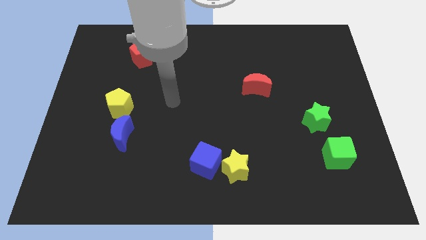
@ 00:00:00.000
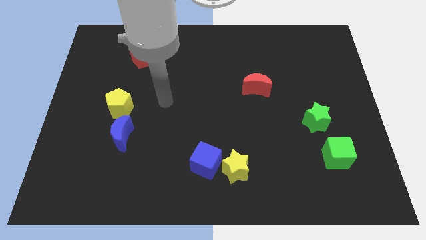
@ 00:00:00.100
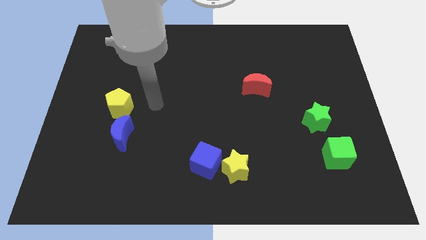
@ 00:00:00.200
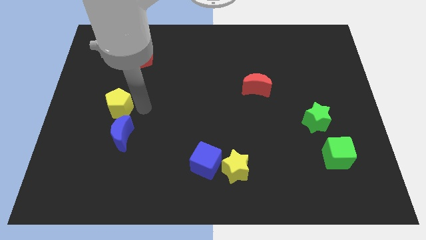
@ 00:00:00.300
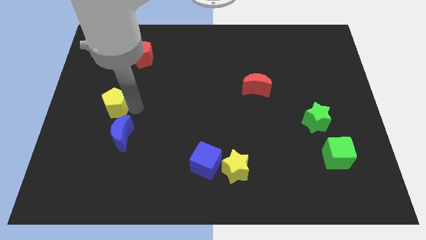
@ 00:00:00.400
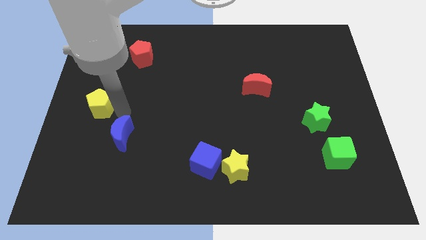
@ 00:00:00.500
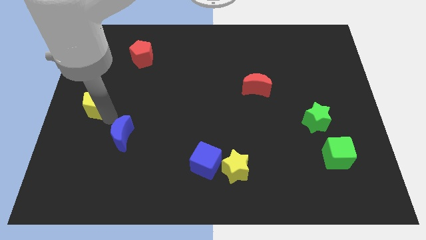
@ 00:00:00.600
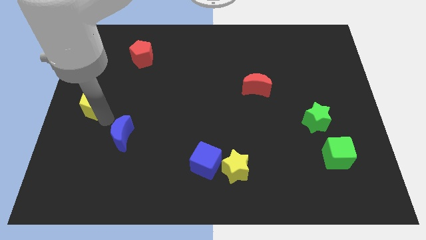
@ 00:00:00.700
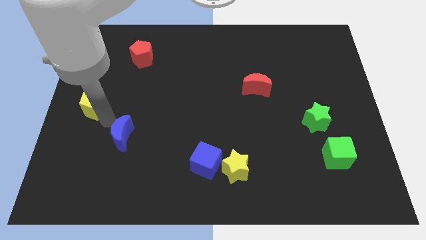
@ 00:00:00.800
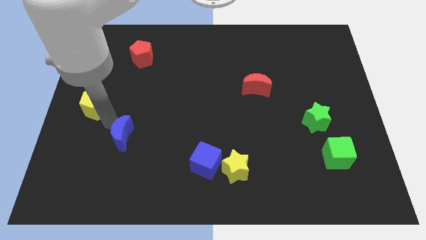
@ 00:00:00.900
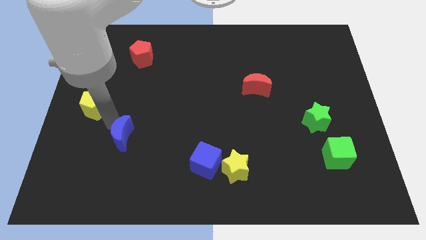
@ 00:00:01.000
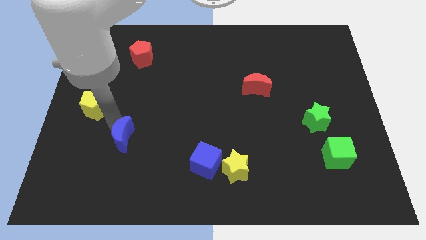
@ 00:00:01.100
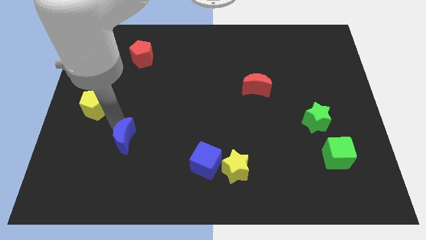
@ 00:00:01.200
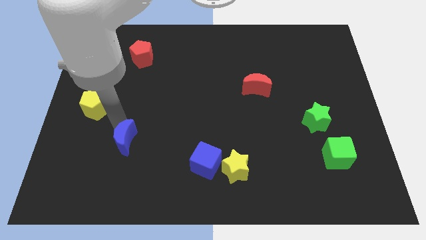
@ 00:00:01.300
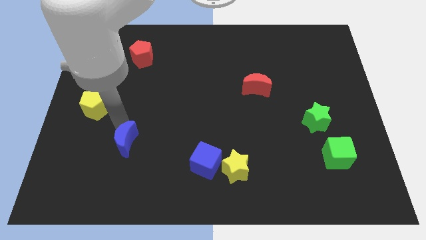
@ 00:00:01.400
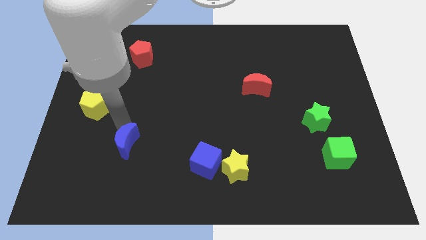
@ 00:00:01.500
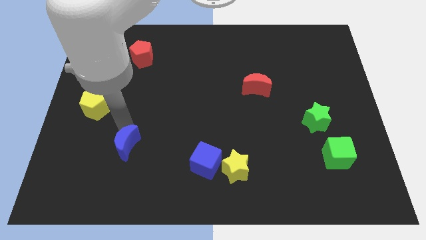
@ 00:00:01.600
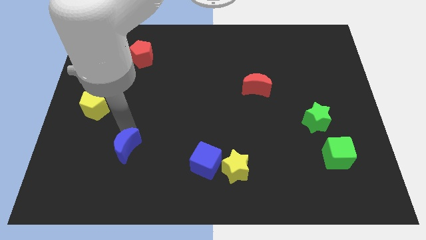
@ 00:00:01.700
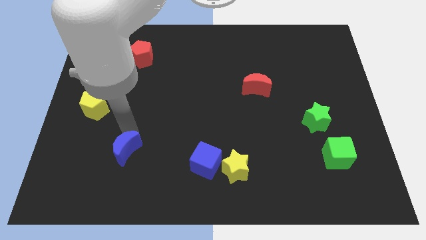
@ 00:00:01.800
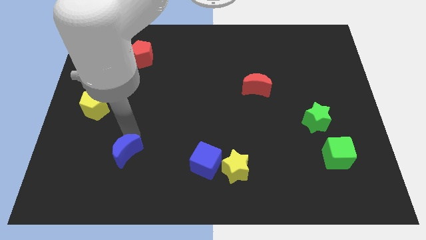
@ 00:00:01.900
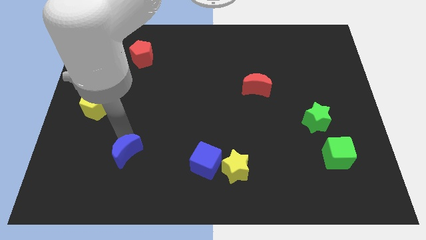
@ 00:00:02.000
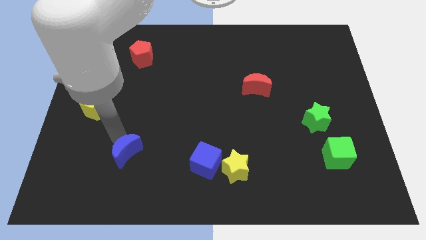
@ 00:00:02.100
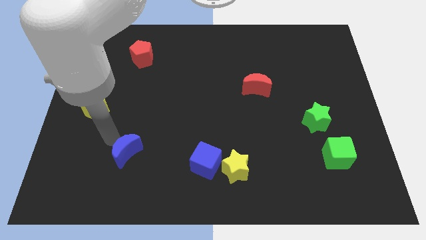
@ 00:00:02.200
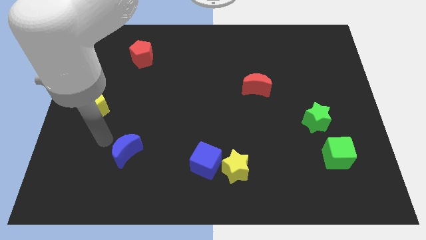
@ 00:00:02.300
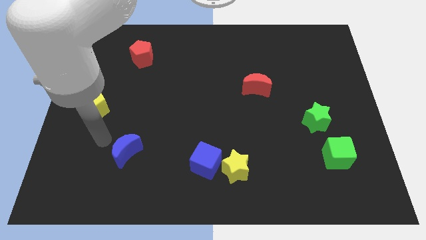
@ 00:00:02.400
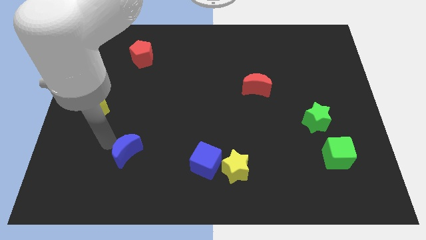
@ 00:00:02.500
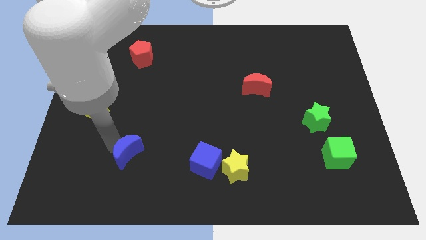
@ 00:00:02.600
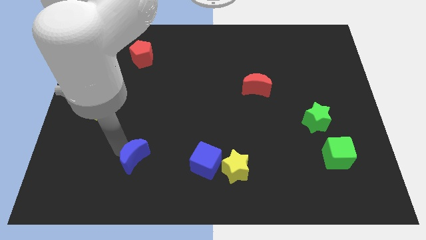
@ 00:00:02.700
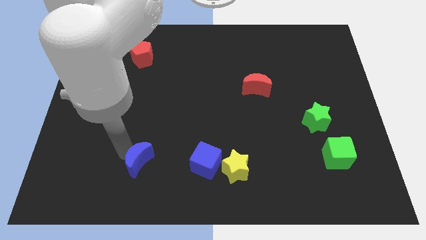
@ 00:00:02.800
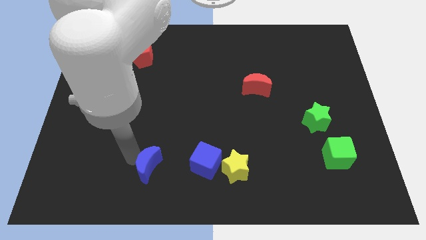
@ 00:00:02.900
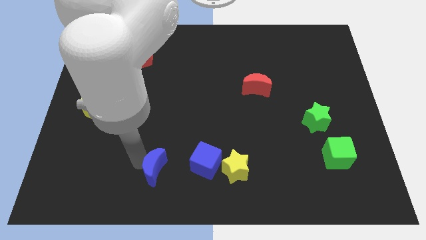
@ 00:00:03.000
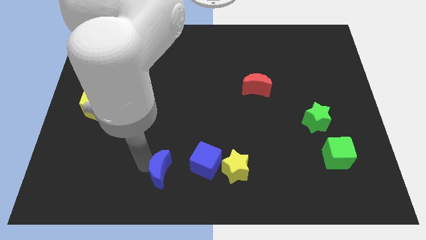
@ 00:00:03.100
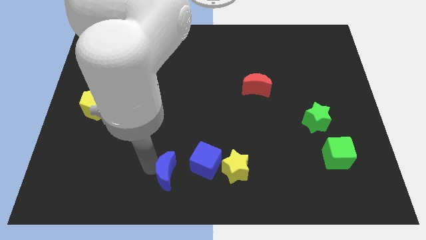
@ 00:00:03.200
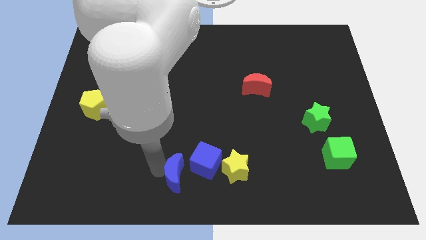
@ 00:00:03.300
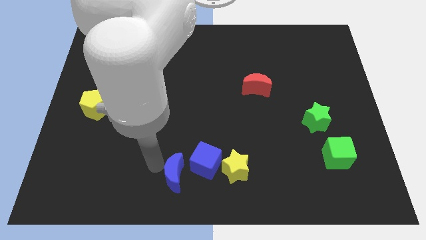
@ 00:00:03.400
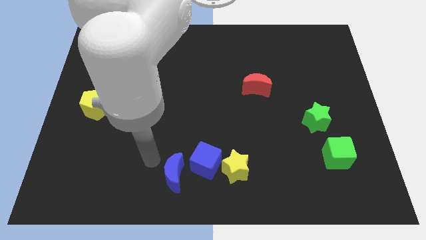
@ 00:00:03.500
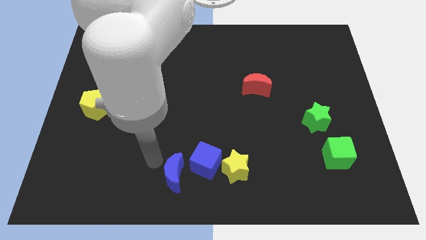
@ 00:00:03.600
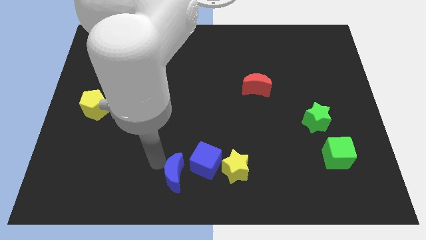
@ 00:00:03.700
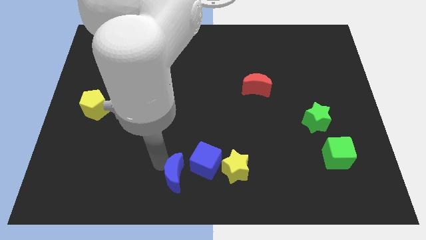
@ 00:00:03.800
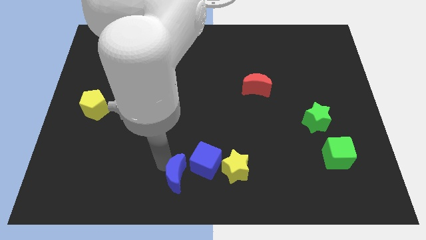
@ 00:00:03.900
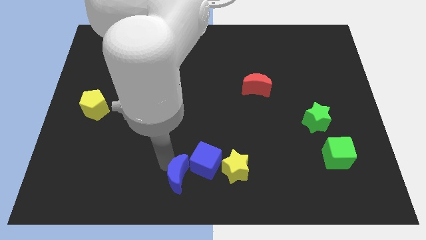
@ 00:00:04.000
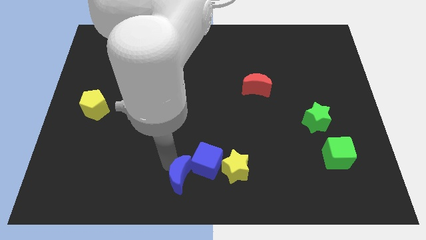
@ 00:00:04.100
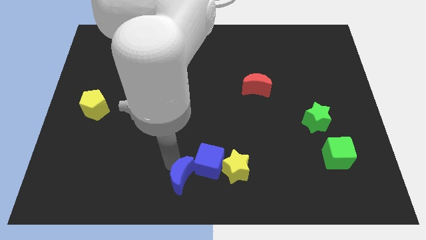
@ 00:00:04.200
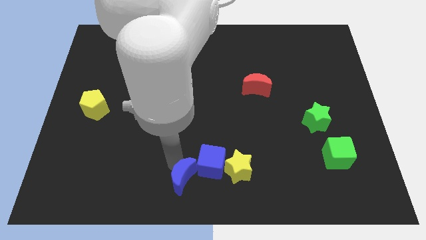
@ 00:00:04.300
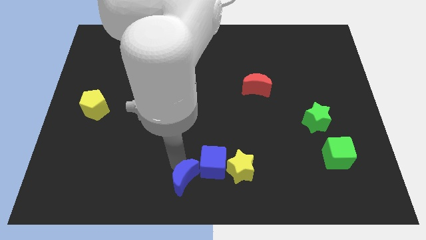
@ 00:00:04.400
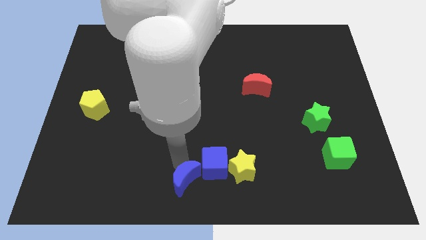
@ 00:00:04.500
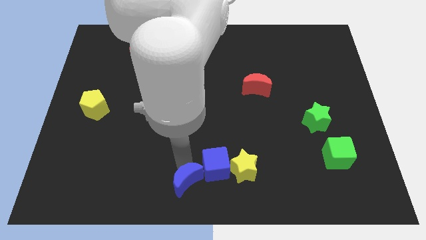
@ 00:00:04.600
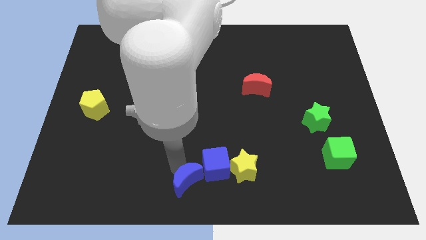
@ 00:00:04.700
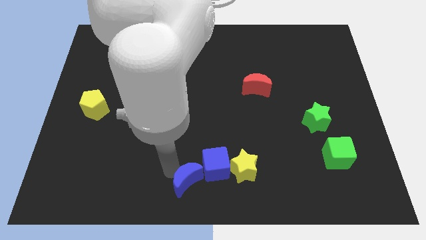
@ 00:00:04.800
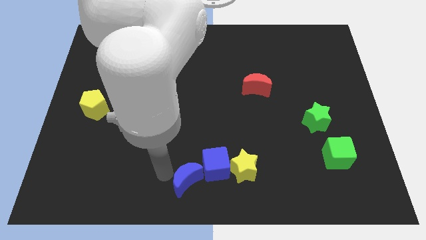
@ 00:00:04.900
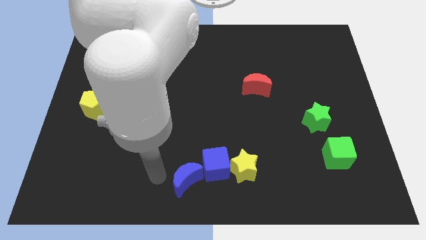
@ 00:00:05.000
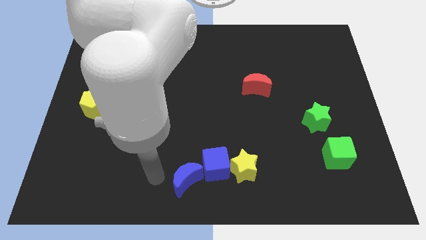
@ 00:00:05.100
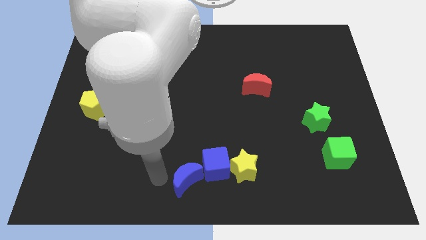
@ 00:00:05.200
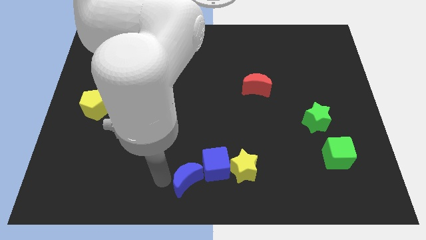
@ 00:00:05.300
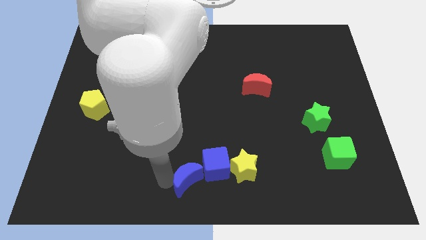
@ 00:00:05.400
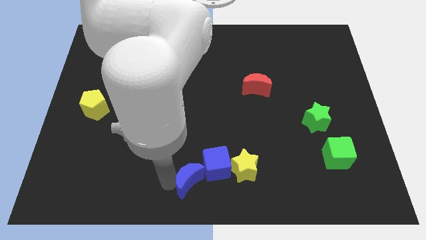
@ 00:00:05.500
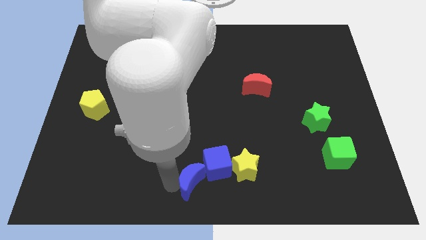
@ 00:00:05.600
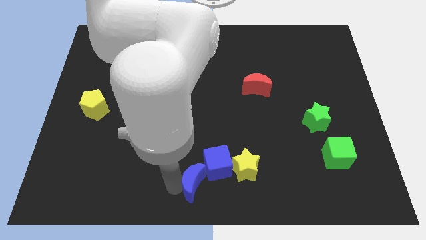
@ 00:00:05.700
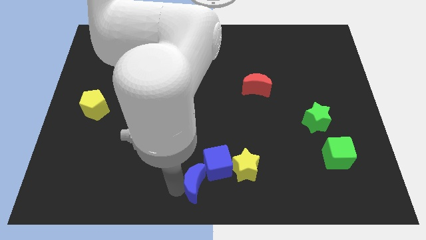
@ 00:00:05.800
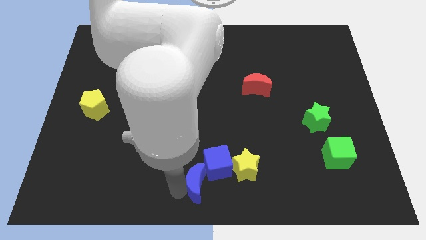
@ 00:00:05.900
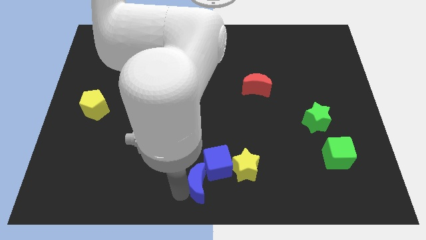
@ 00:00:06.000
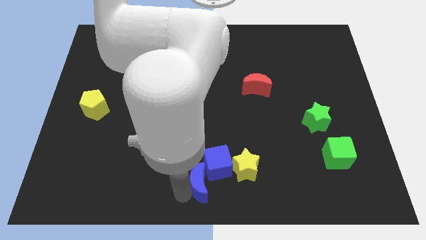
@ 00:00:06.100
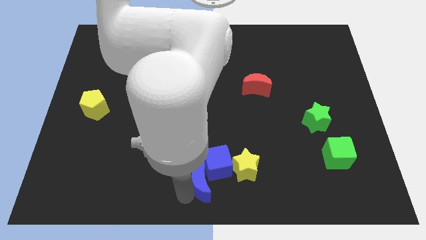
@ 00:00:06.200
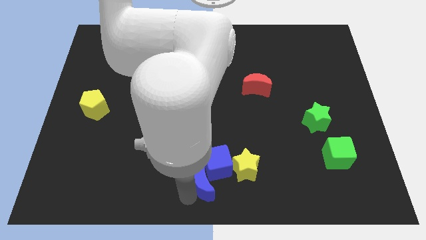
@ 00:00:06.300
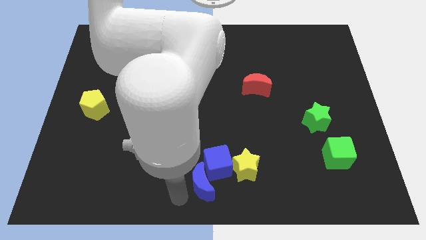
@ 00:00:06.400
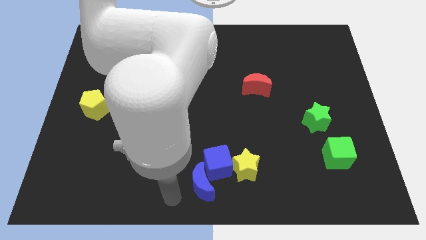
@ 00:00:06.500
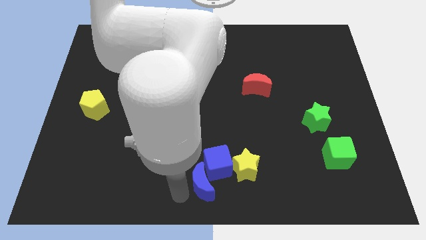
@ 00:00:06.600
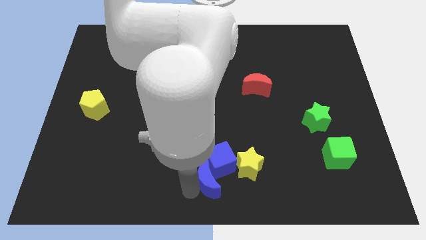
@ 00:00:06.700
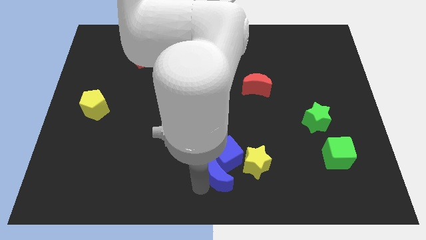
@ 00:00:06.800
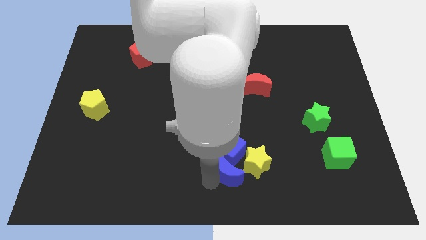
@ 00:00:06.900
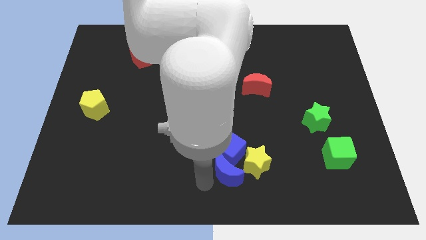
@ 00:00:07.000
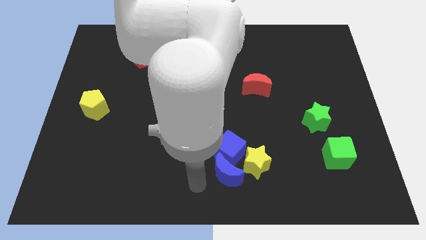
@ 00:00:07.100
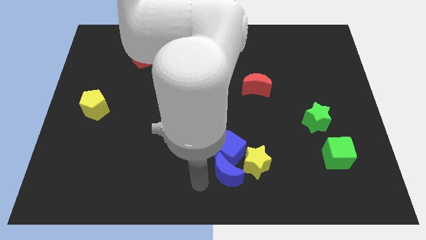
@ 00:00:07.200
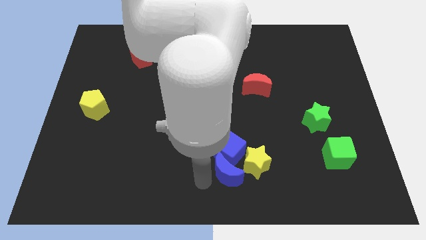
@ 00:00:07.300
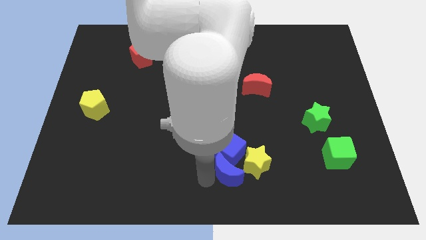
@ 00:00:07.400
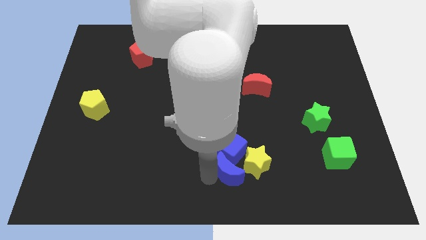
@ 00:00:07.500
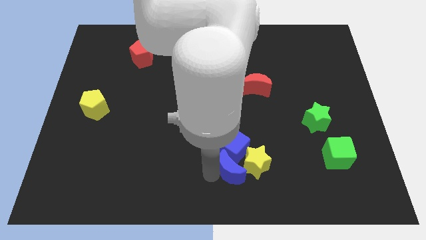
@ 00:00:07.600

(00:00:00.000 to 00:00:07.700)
push the blue moon towards the yellow star
